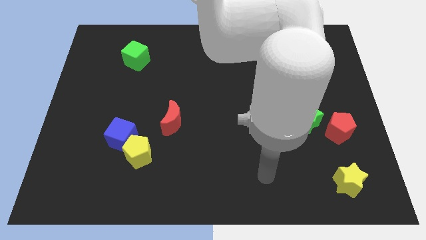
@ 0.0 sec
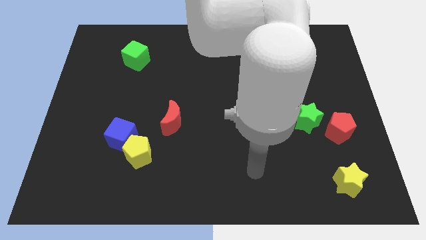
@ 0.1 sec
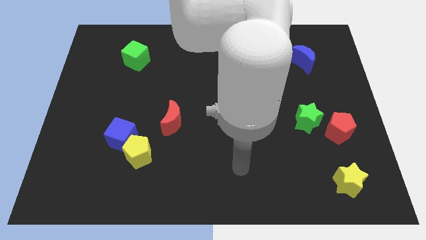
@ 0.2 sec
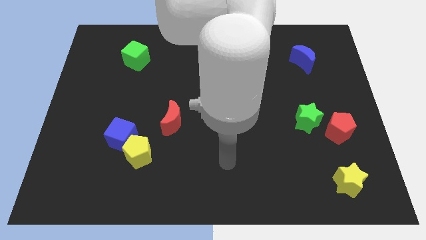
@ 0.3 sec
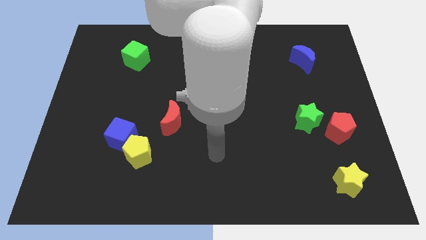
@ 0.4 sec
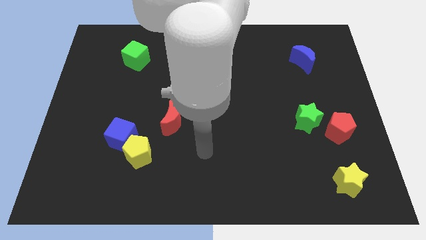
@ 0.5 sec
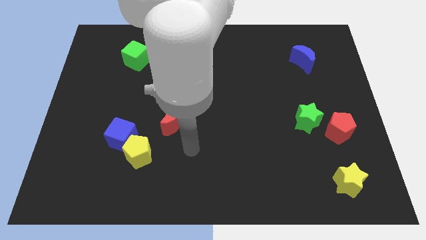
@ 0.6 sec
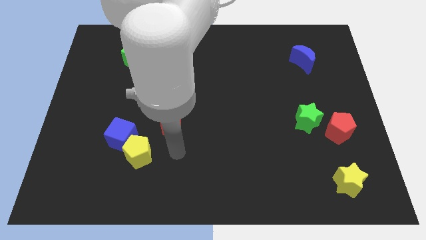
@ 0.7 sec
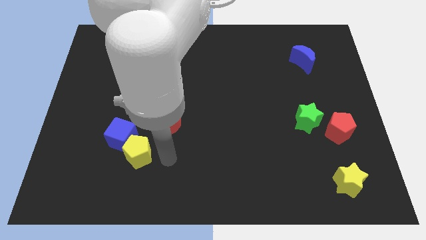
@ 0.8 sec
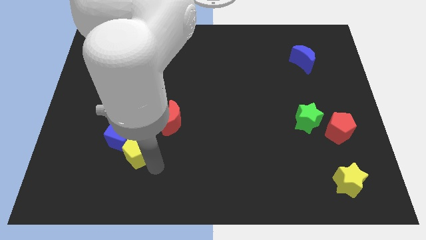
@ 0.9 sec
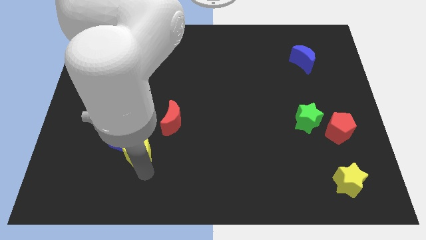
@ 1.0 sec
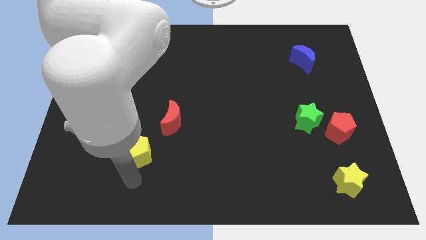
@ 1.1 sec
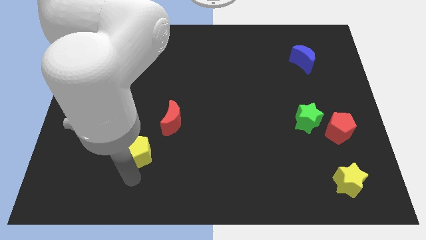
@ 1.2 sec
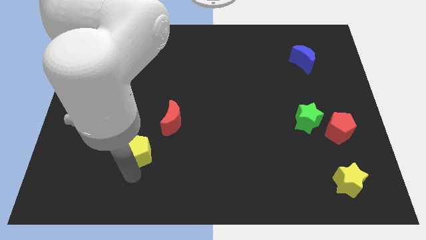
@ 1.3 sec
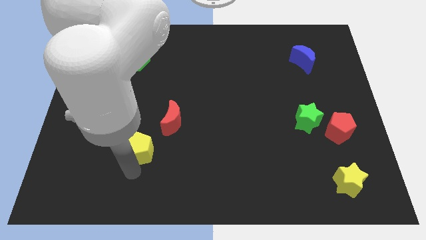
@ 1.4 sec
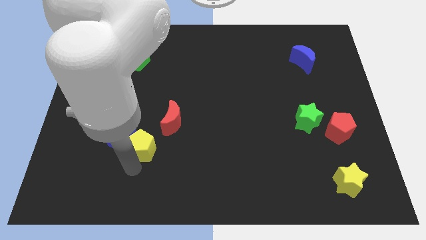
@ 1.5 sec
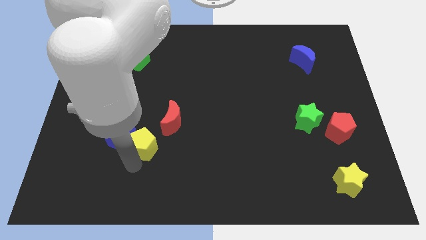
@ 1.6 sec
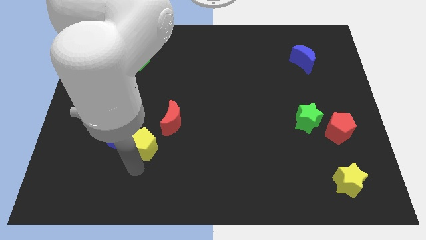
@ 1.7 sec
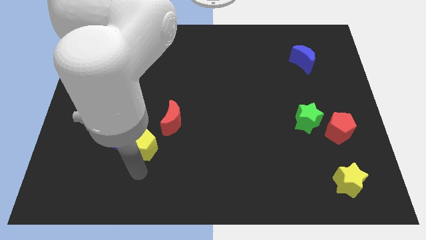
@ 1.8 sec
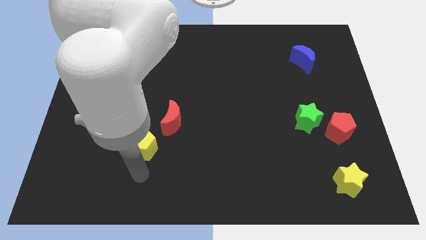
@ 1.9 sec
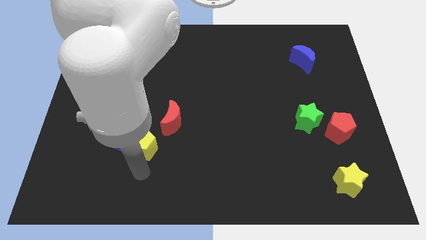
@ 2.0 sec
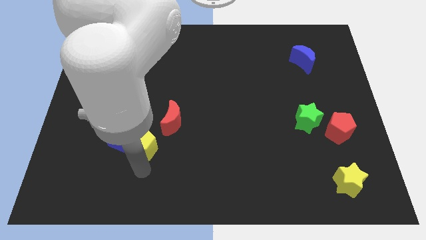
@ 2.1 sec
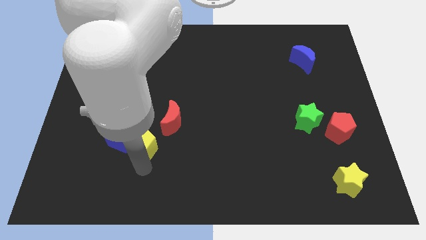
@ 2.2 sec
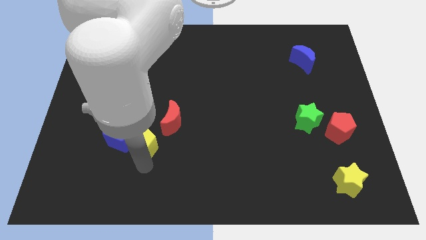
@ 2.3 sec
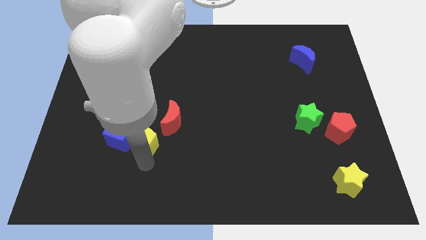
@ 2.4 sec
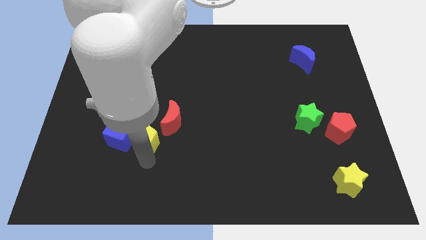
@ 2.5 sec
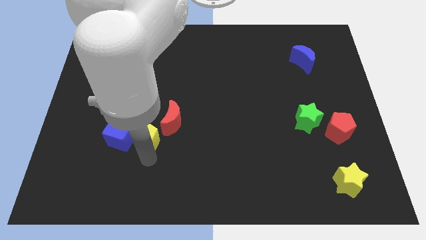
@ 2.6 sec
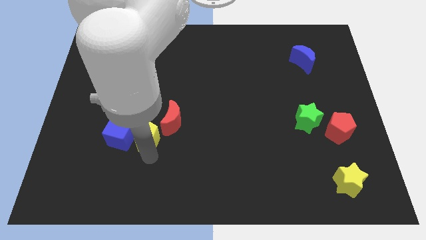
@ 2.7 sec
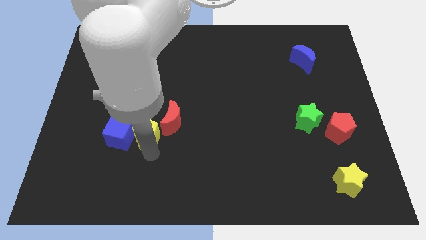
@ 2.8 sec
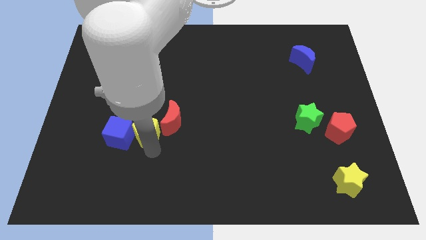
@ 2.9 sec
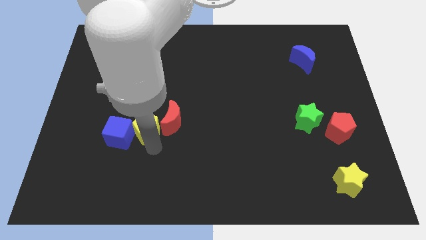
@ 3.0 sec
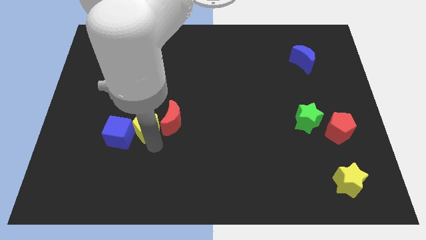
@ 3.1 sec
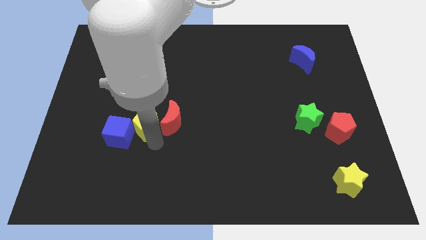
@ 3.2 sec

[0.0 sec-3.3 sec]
slightly push the yellow pentagon up

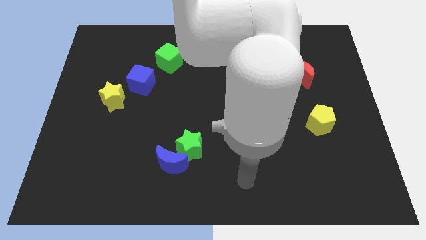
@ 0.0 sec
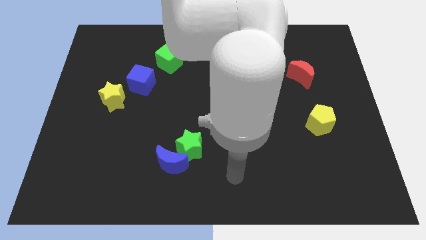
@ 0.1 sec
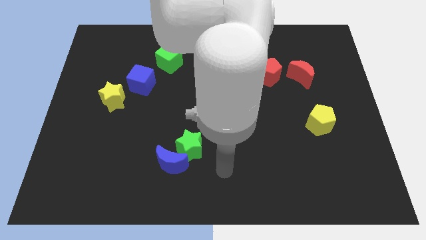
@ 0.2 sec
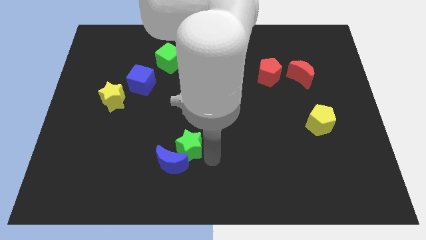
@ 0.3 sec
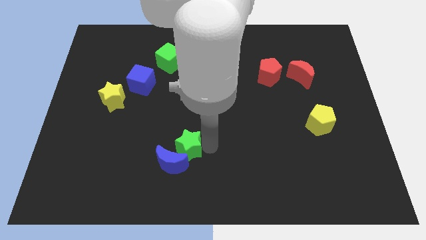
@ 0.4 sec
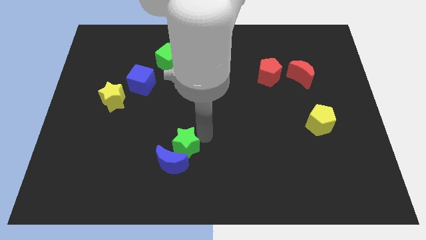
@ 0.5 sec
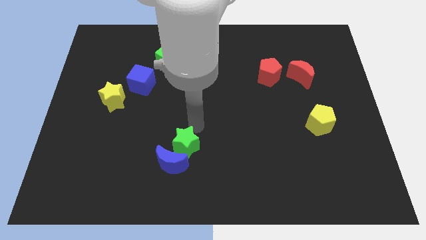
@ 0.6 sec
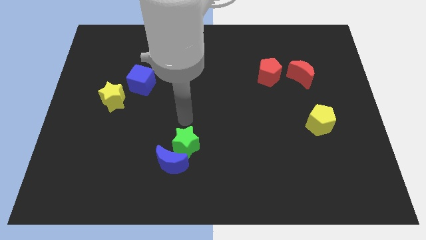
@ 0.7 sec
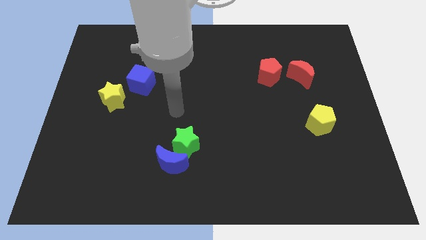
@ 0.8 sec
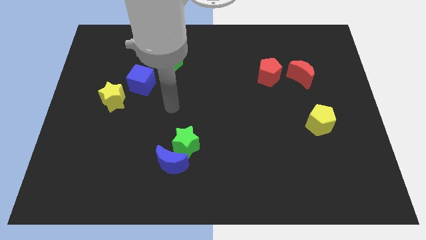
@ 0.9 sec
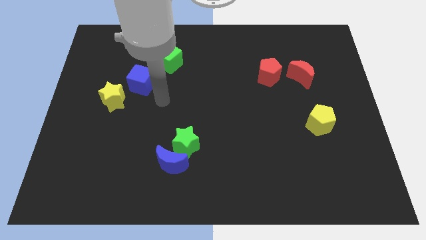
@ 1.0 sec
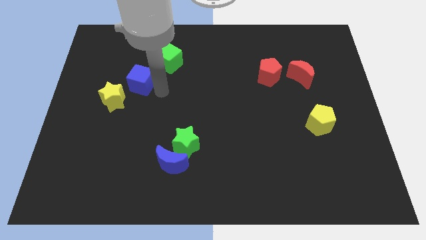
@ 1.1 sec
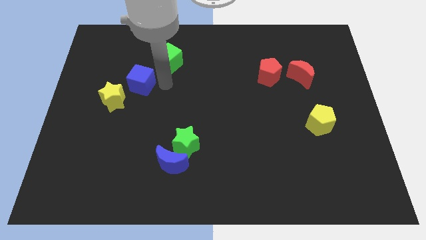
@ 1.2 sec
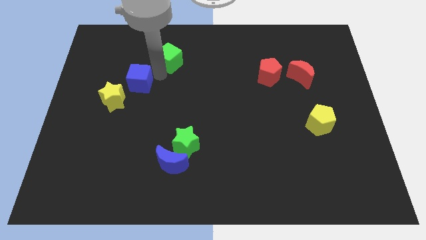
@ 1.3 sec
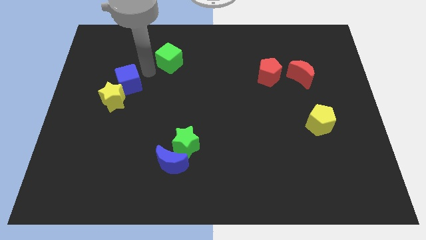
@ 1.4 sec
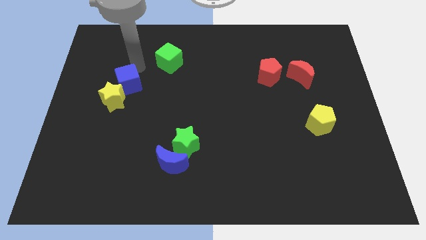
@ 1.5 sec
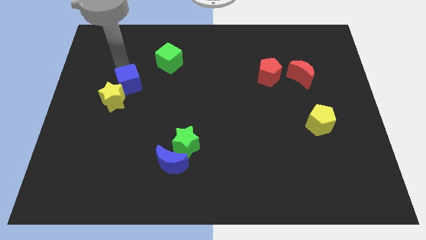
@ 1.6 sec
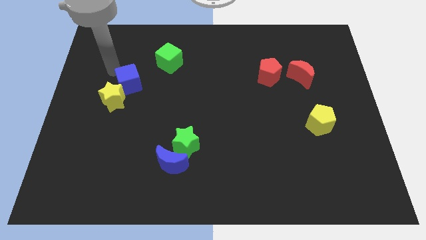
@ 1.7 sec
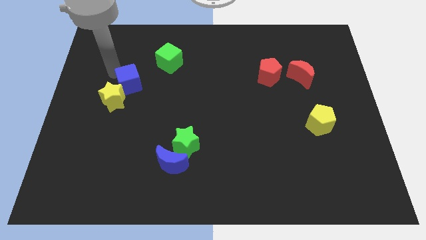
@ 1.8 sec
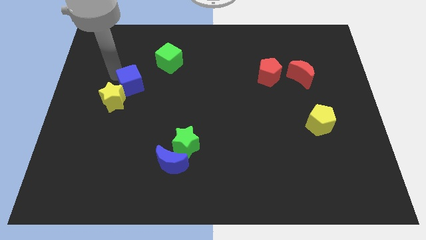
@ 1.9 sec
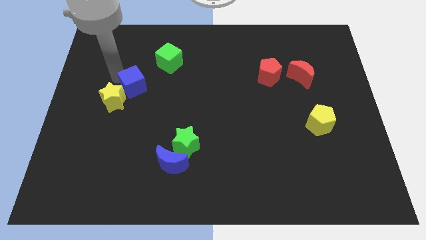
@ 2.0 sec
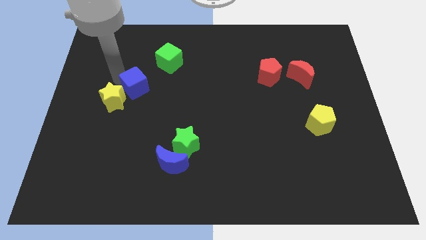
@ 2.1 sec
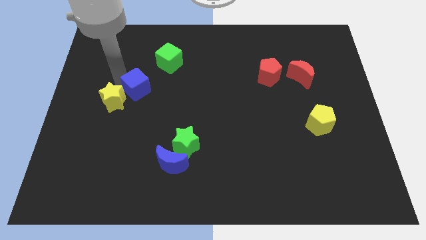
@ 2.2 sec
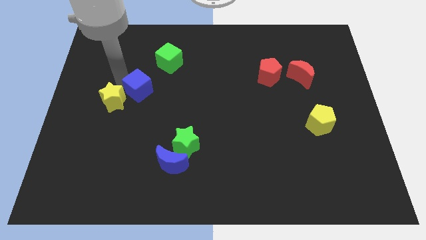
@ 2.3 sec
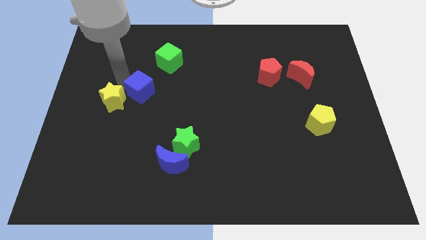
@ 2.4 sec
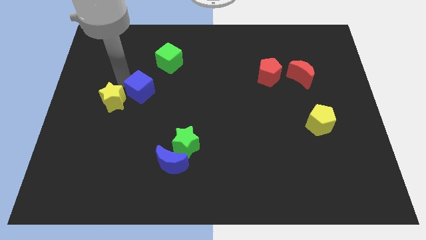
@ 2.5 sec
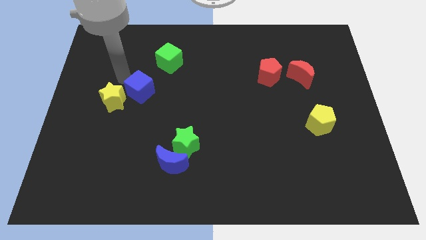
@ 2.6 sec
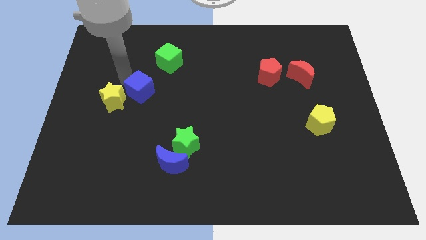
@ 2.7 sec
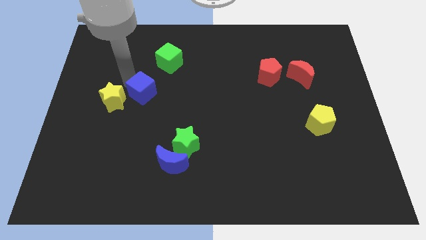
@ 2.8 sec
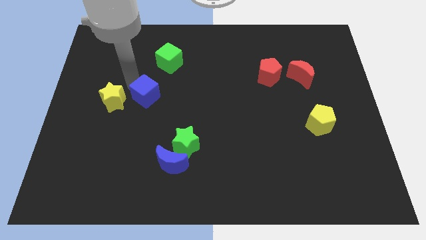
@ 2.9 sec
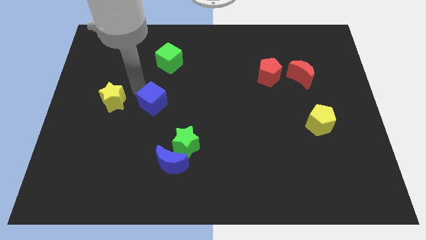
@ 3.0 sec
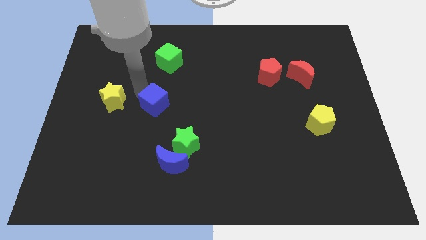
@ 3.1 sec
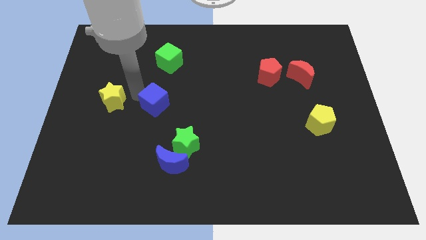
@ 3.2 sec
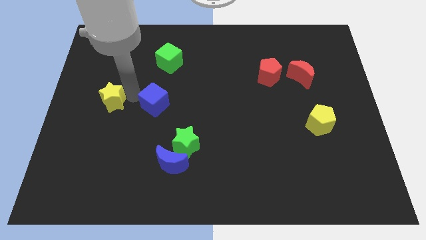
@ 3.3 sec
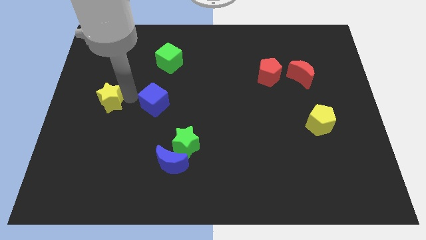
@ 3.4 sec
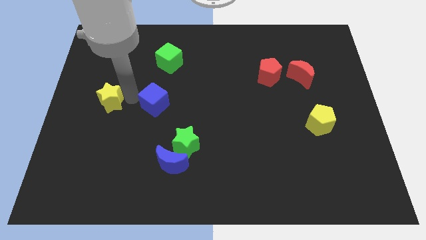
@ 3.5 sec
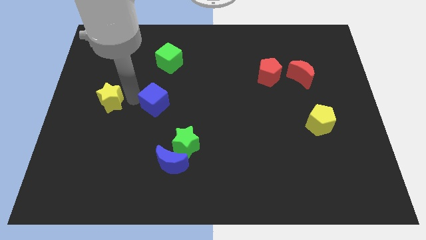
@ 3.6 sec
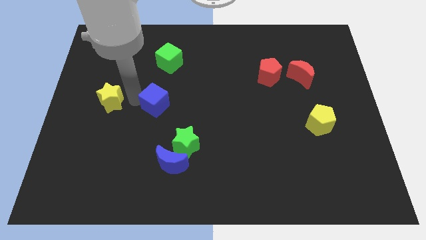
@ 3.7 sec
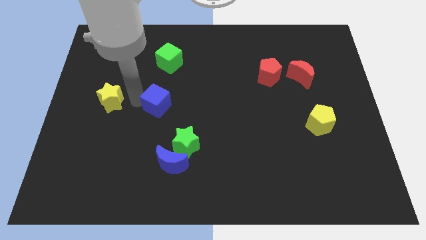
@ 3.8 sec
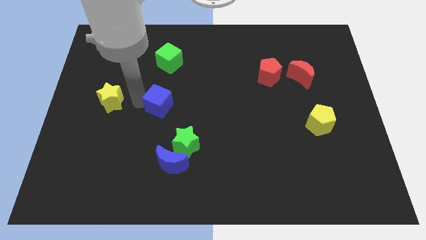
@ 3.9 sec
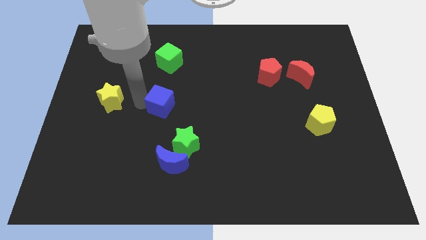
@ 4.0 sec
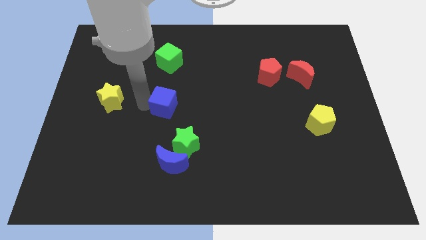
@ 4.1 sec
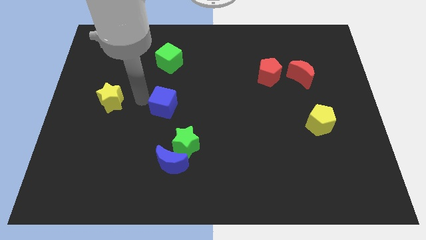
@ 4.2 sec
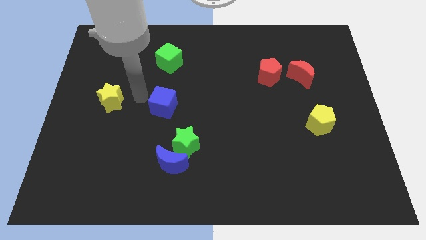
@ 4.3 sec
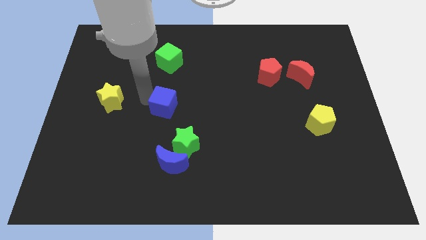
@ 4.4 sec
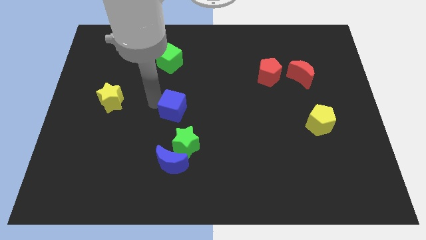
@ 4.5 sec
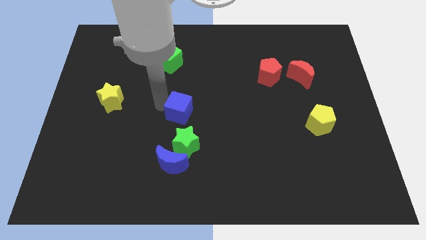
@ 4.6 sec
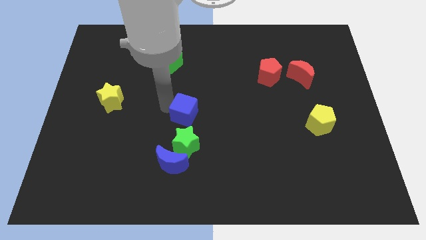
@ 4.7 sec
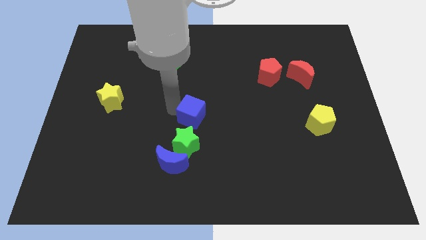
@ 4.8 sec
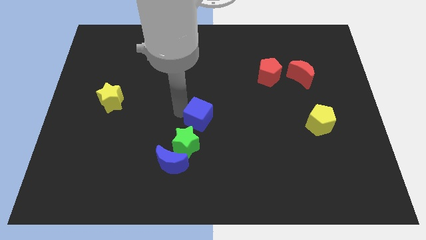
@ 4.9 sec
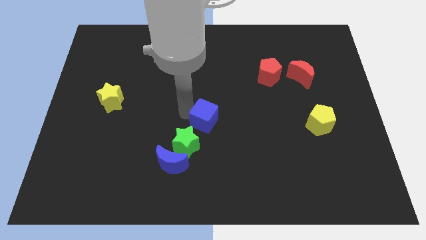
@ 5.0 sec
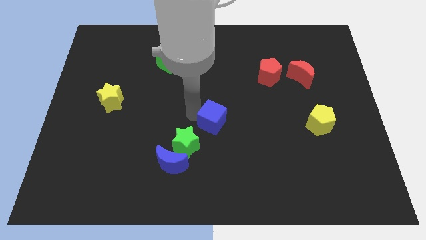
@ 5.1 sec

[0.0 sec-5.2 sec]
push the blue cube downwards and to the right
